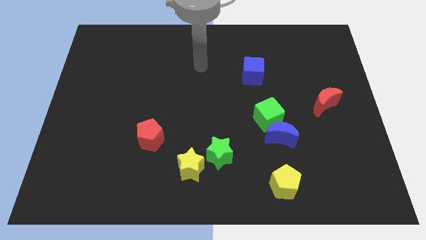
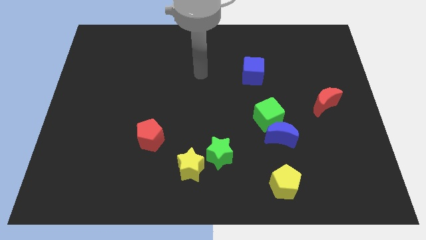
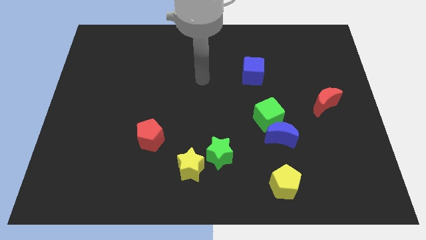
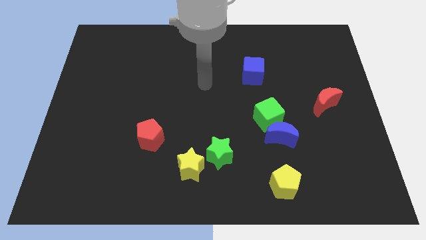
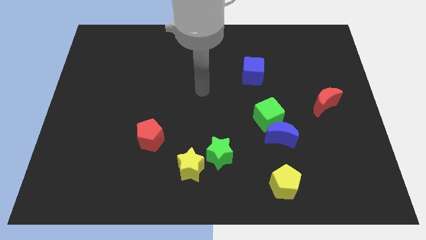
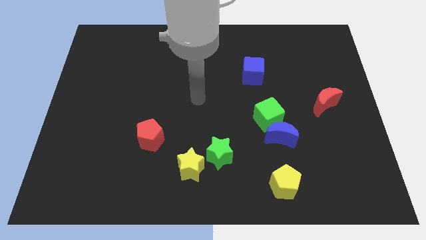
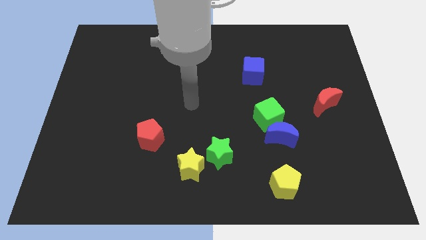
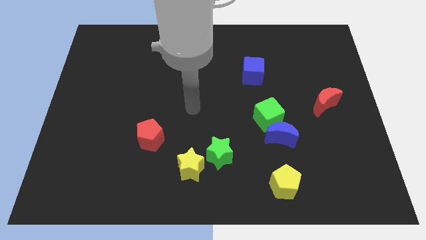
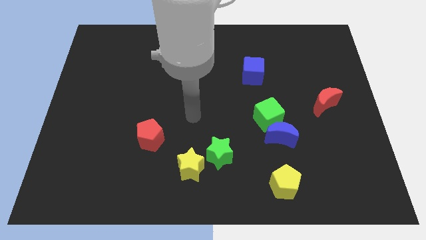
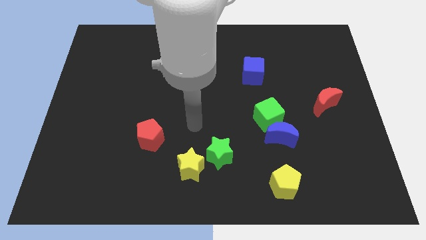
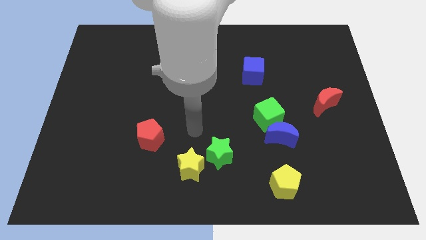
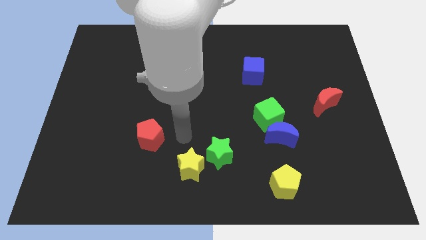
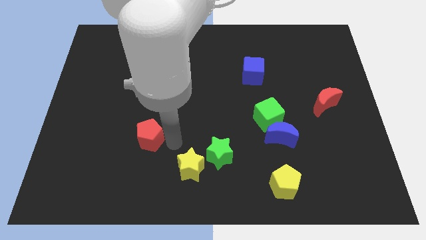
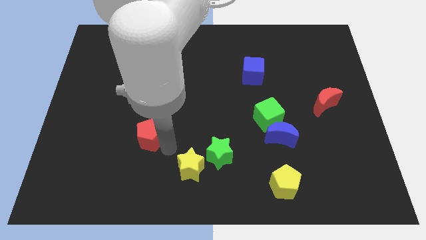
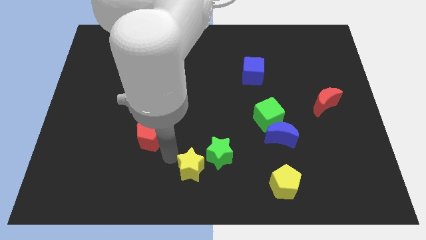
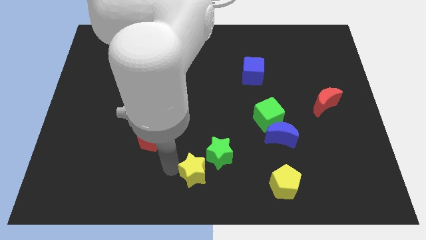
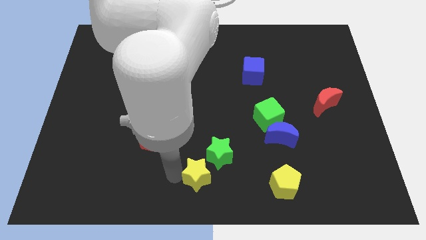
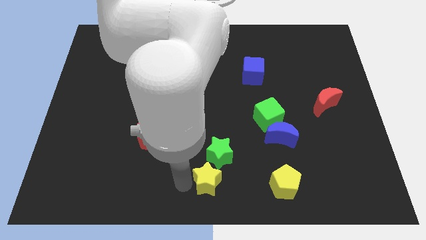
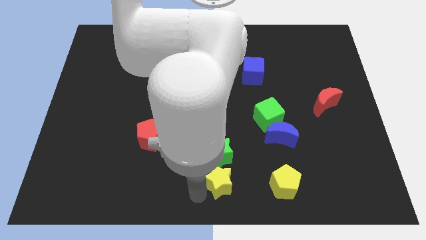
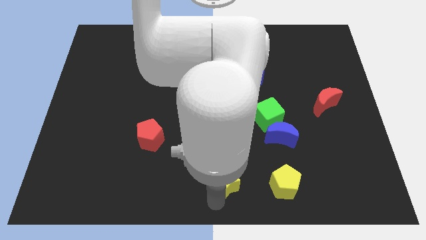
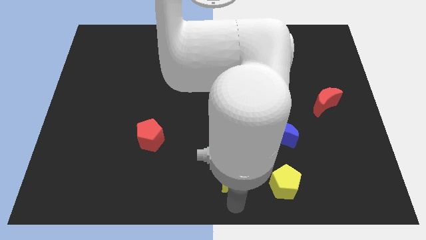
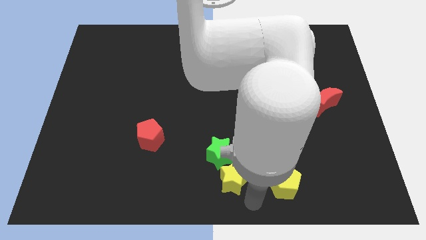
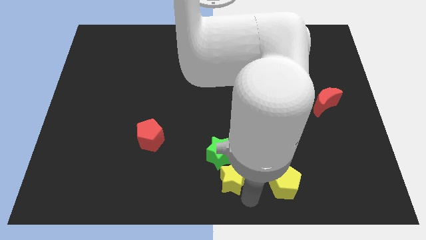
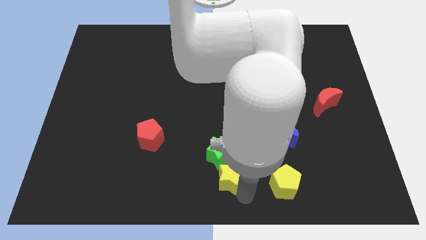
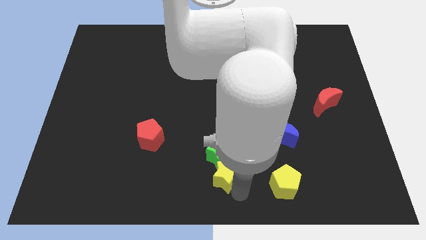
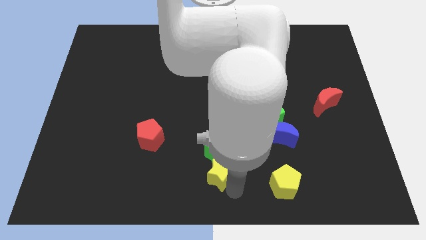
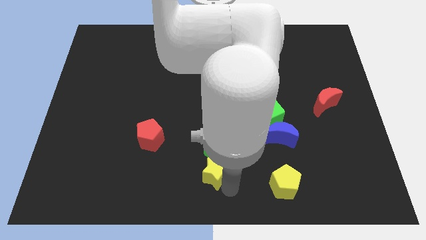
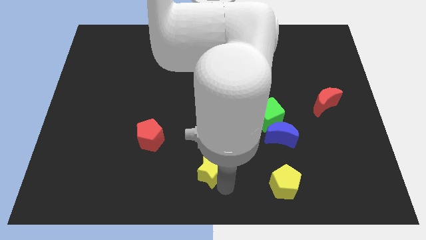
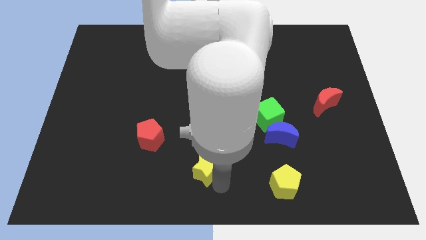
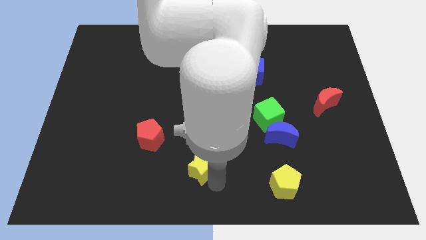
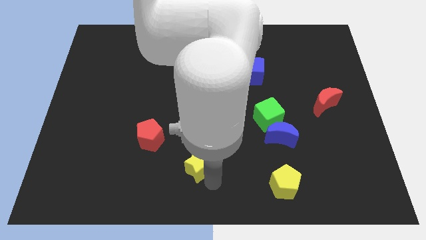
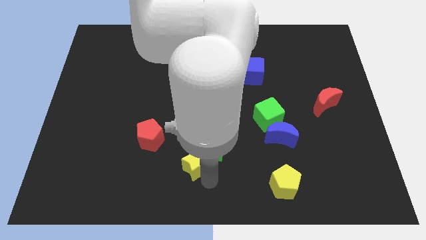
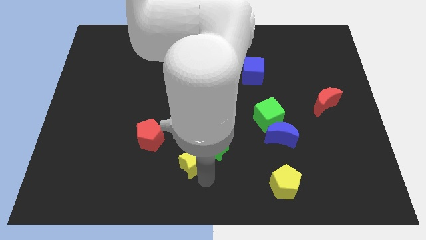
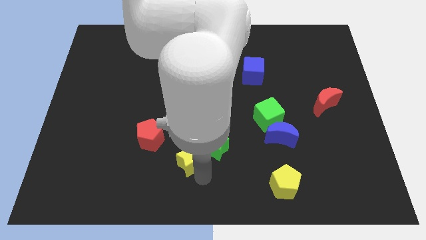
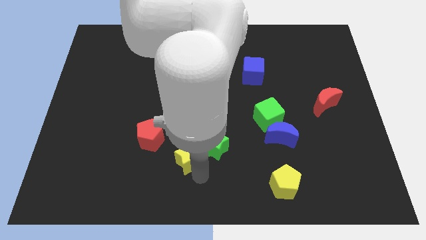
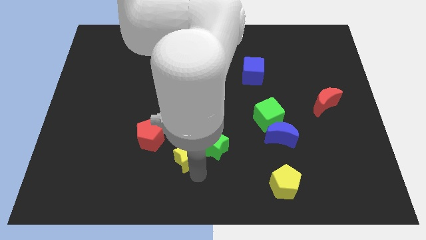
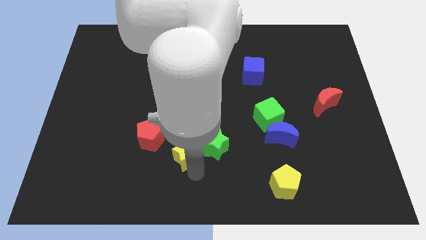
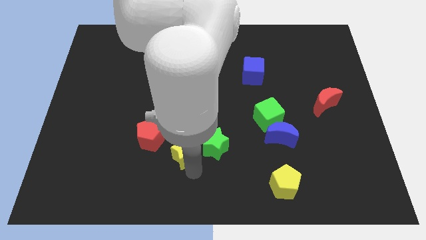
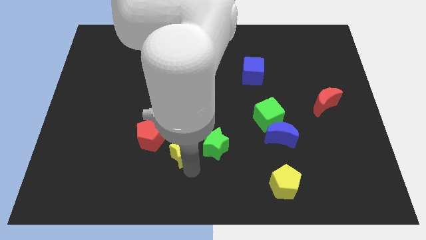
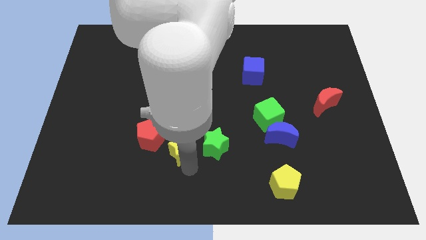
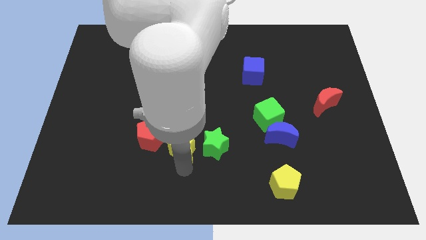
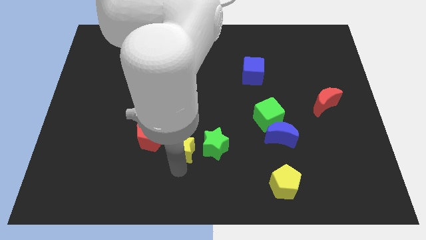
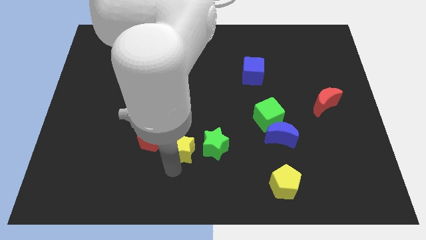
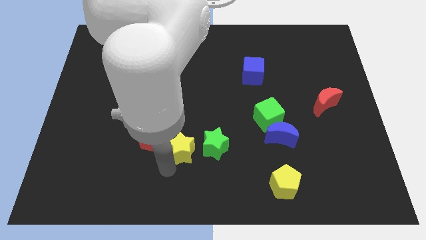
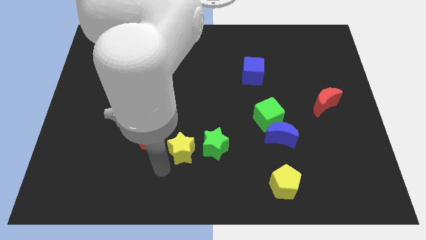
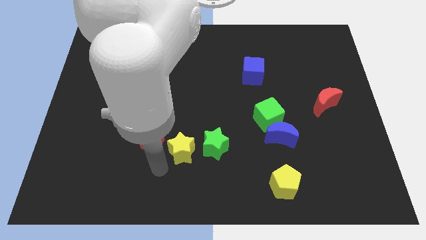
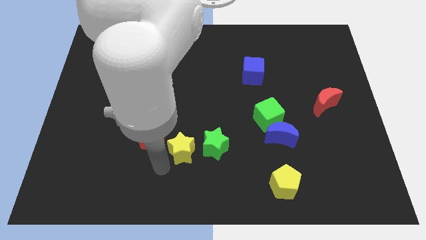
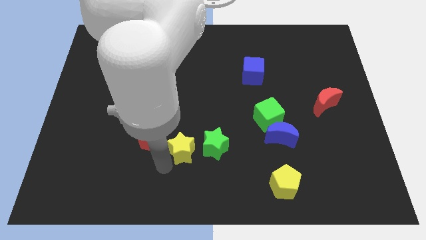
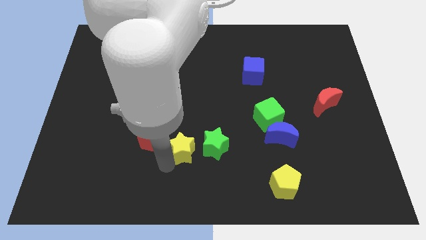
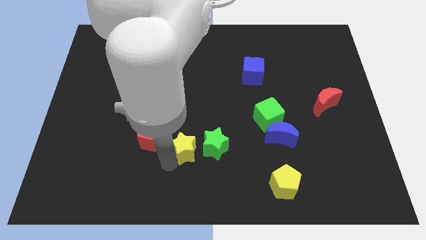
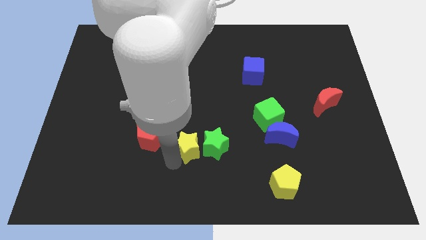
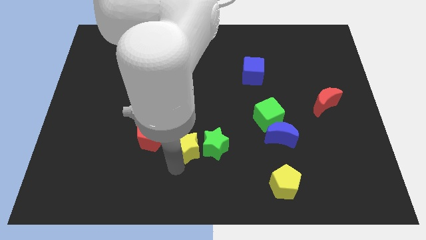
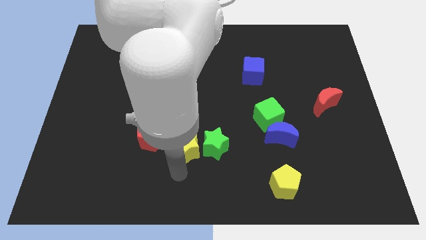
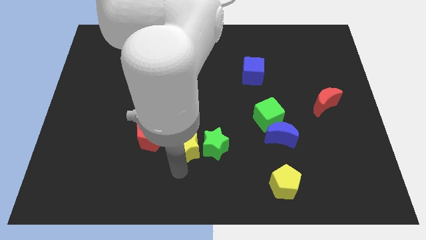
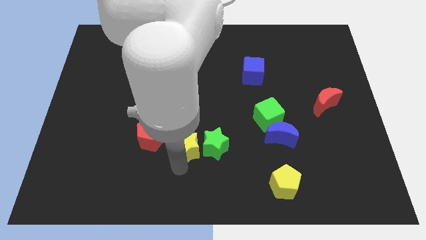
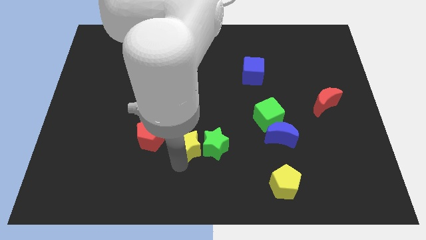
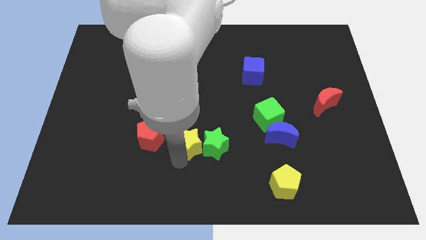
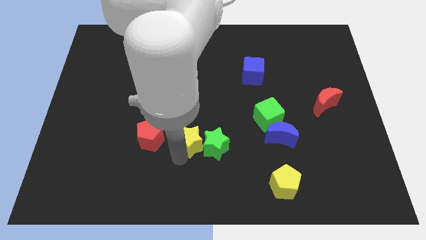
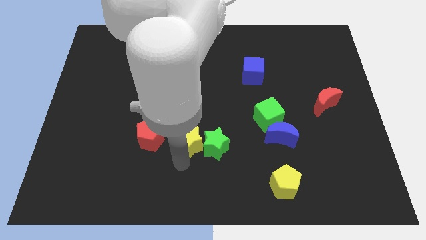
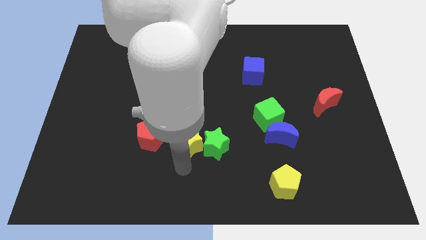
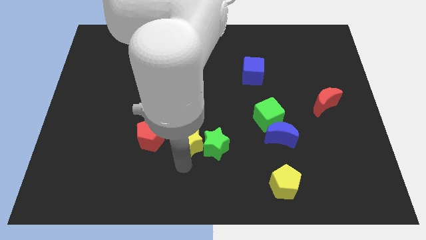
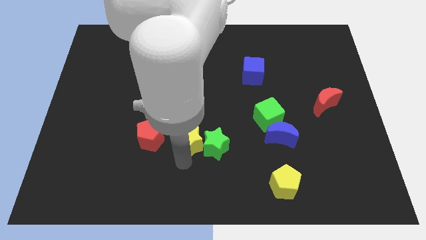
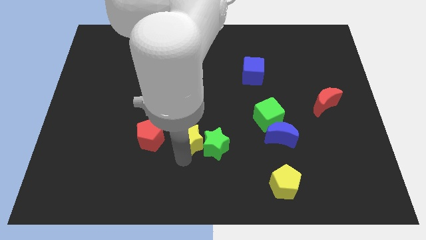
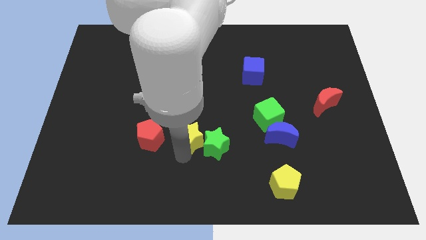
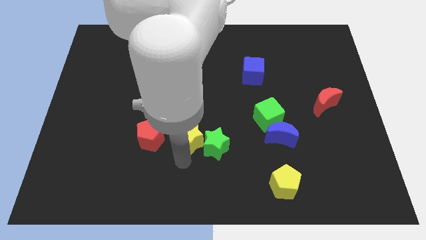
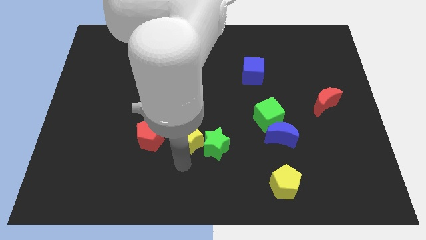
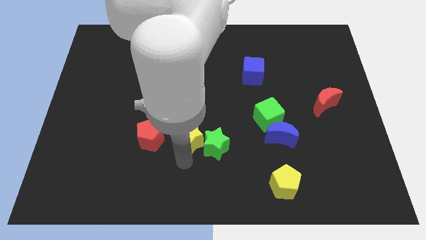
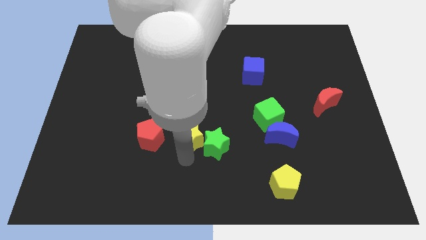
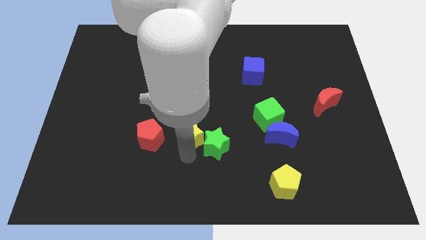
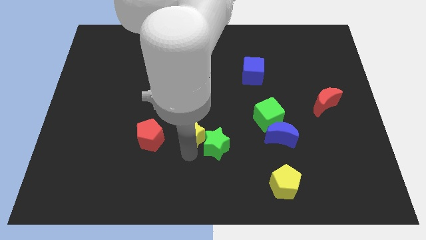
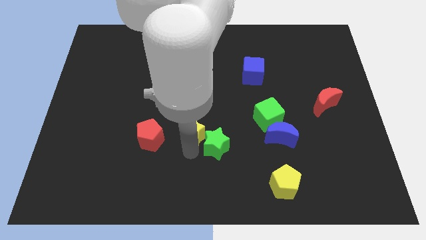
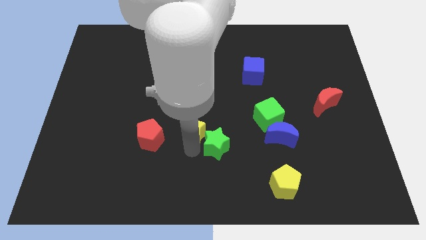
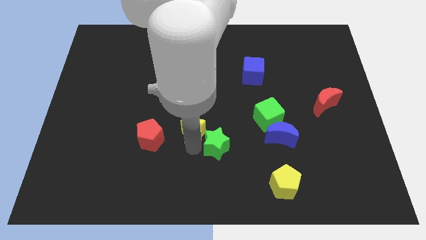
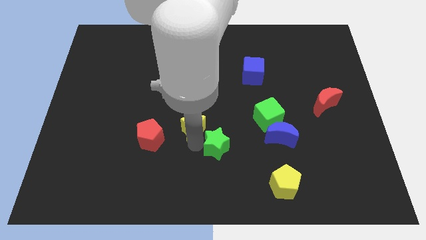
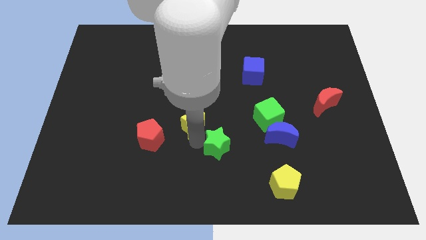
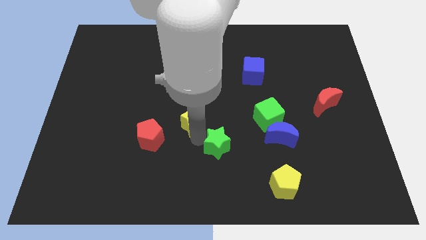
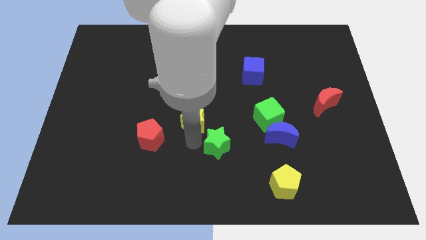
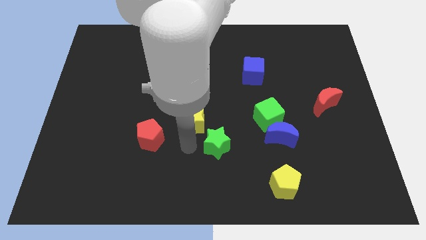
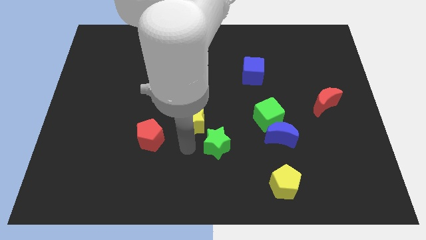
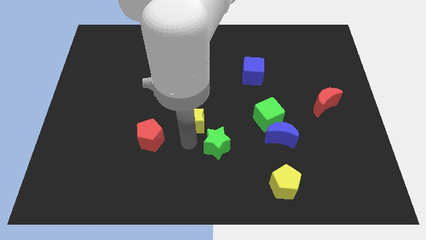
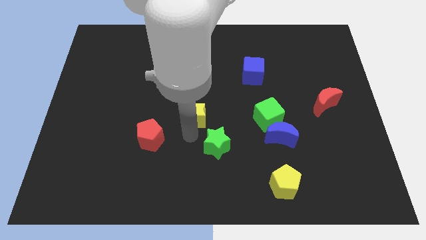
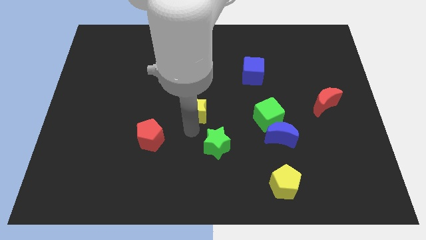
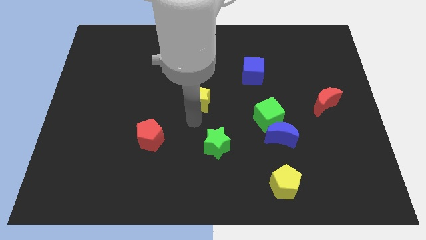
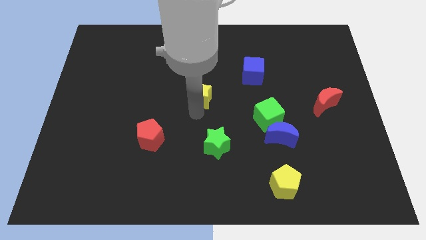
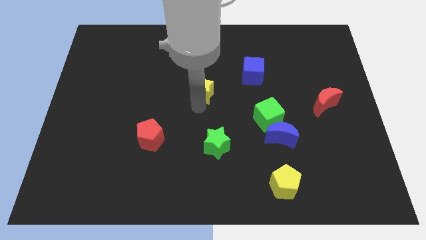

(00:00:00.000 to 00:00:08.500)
slide the yellow star upwards
